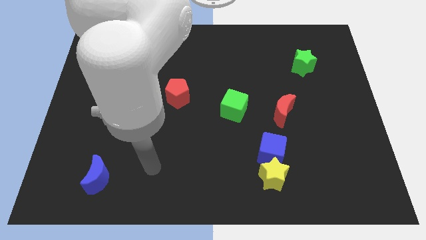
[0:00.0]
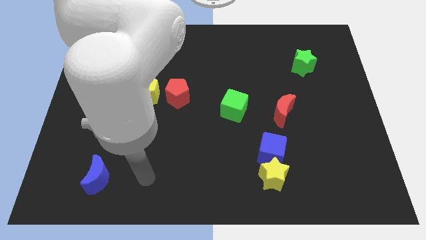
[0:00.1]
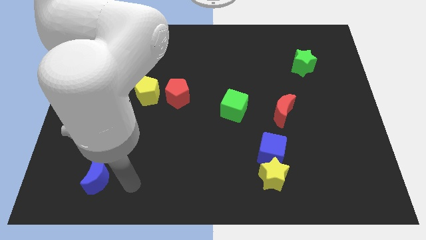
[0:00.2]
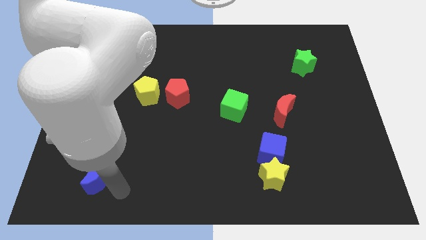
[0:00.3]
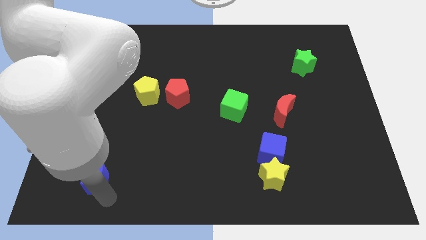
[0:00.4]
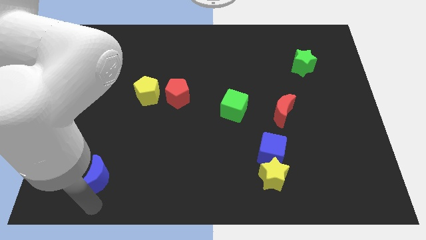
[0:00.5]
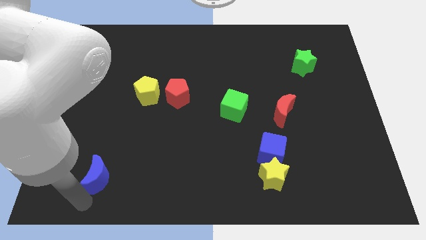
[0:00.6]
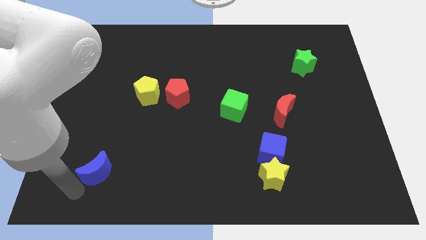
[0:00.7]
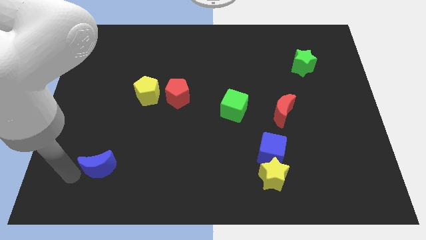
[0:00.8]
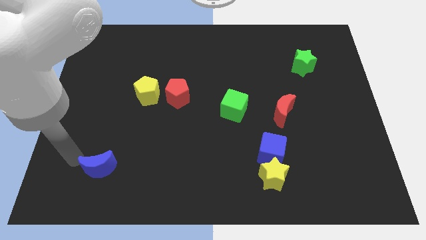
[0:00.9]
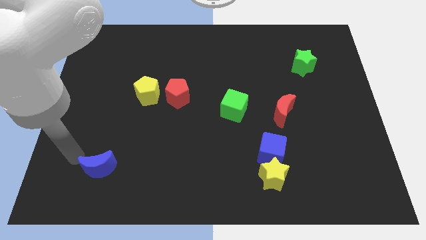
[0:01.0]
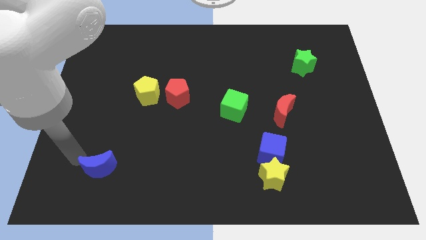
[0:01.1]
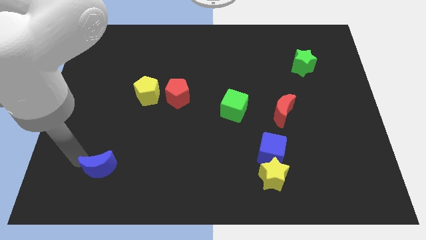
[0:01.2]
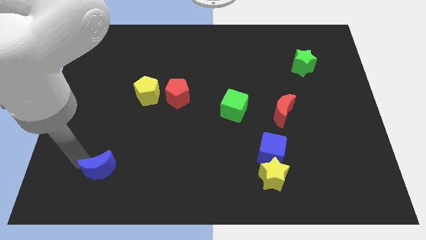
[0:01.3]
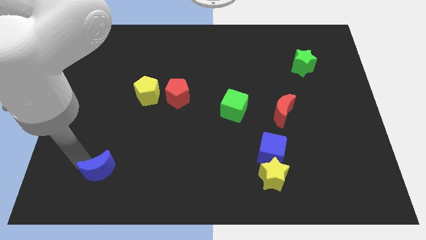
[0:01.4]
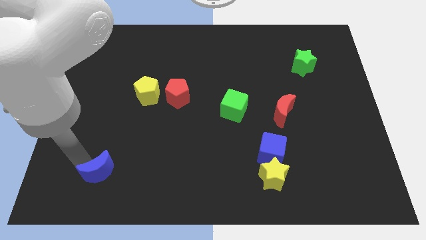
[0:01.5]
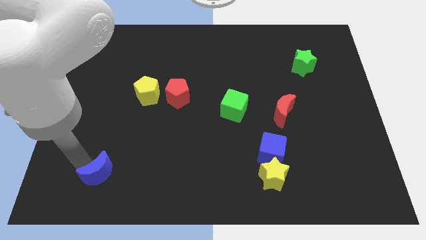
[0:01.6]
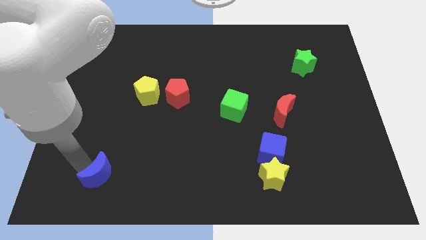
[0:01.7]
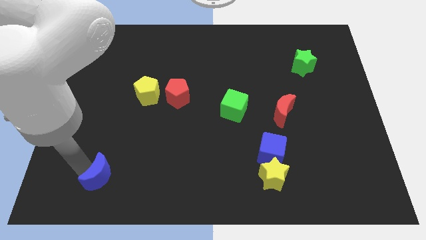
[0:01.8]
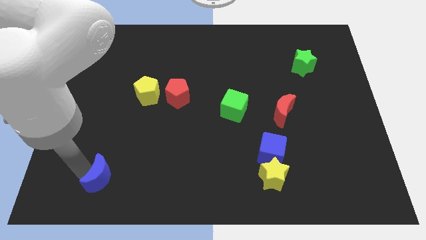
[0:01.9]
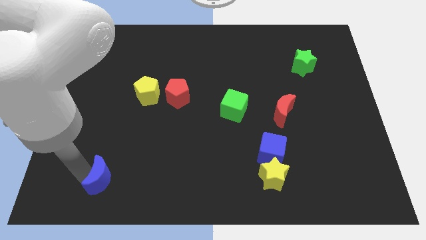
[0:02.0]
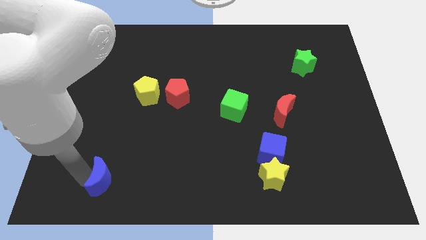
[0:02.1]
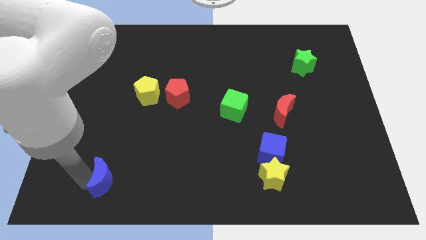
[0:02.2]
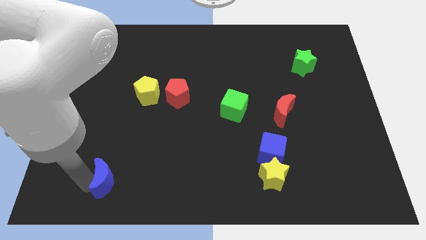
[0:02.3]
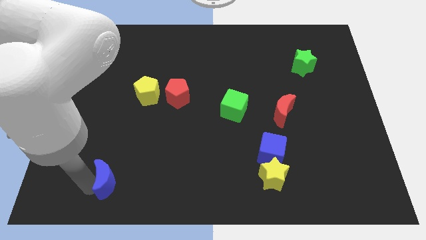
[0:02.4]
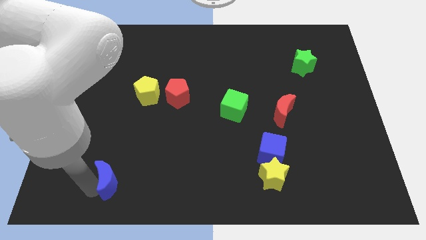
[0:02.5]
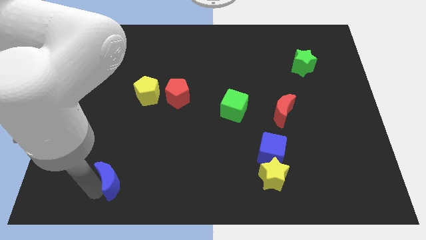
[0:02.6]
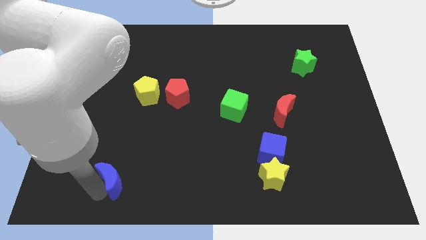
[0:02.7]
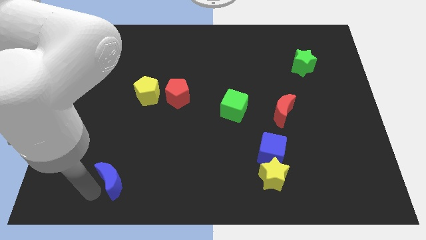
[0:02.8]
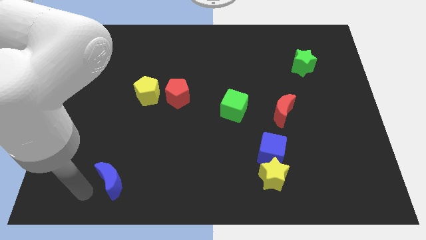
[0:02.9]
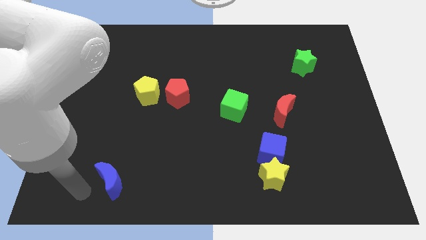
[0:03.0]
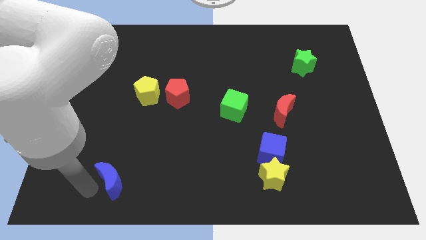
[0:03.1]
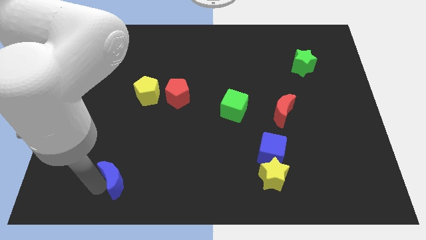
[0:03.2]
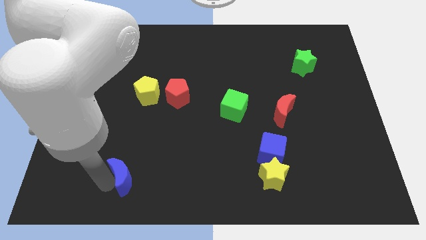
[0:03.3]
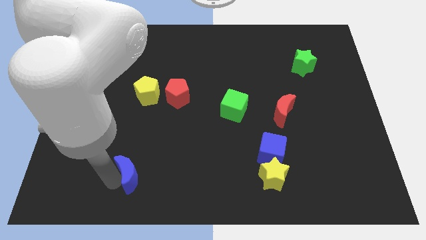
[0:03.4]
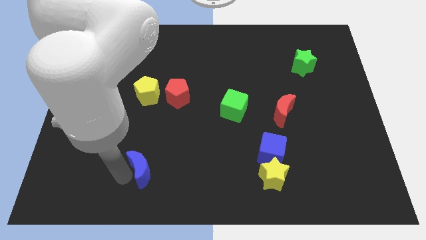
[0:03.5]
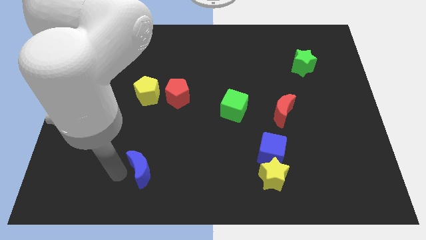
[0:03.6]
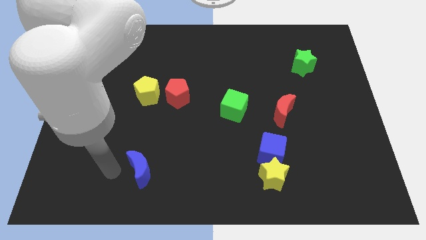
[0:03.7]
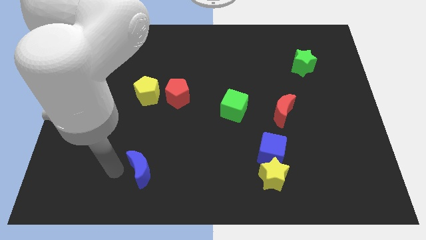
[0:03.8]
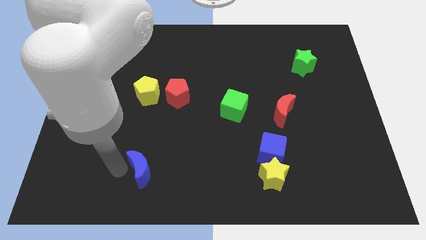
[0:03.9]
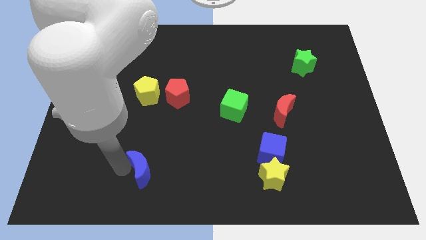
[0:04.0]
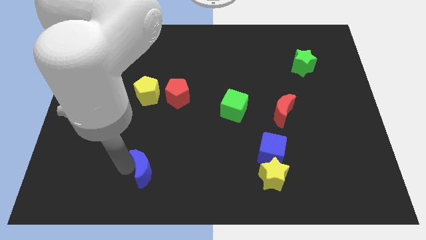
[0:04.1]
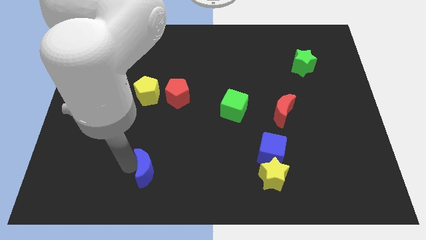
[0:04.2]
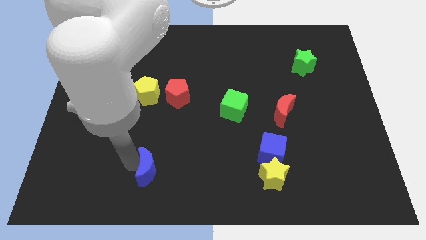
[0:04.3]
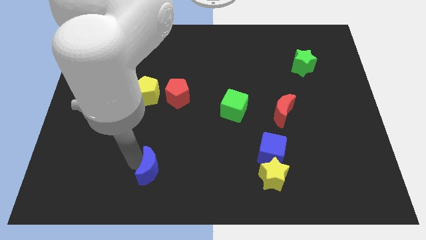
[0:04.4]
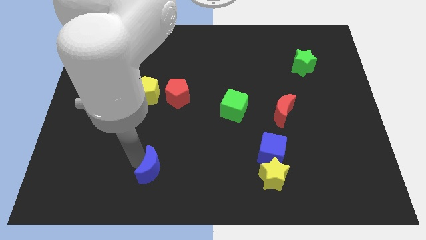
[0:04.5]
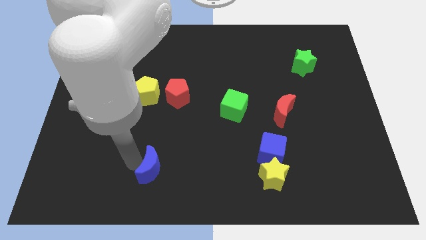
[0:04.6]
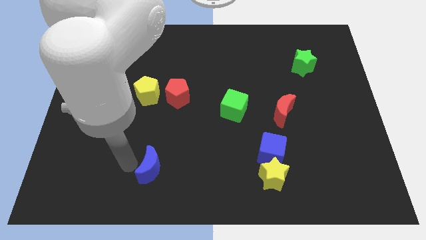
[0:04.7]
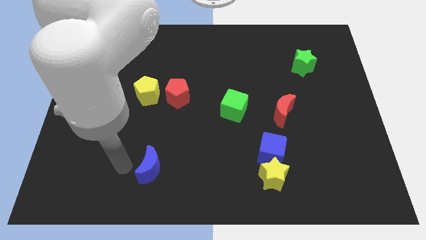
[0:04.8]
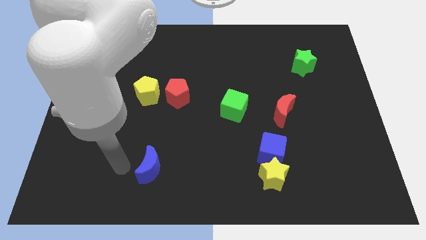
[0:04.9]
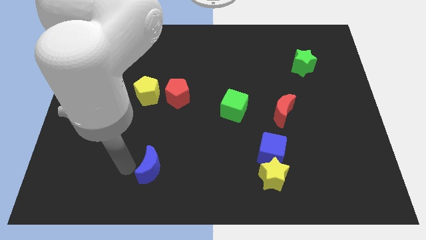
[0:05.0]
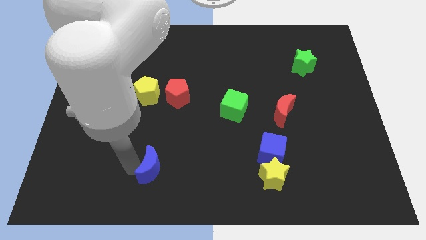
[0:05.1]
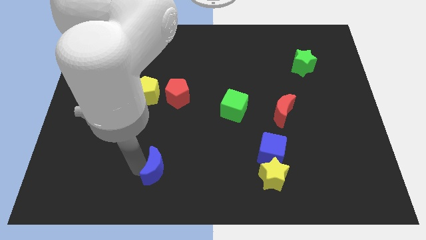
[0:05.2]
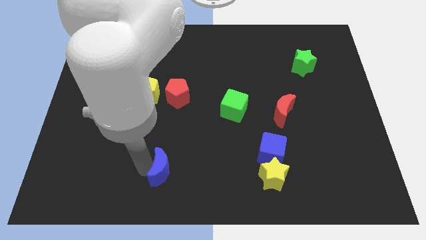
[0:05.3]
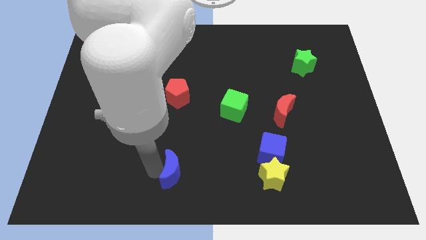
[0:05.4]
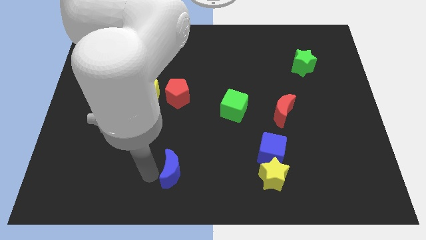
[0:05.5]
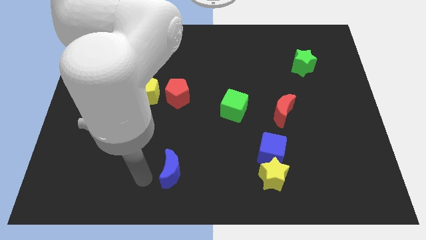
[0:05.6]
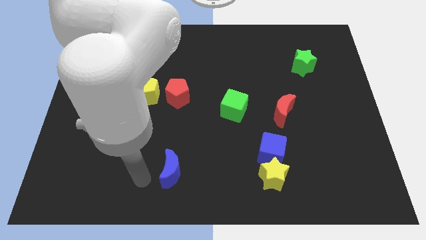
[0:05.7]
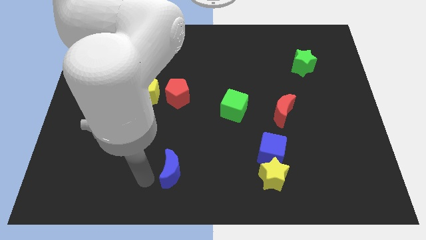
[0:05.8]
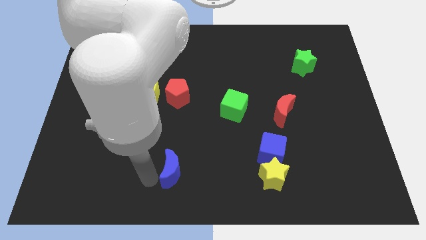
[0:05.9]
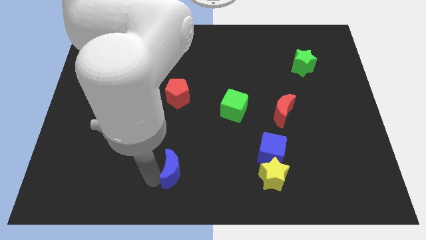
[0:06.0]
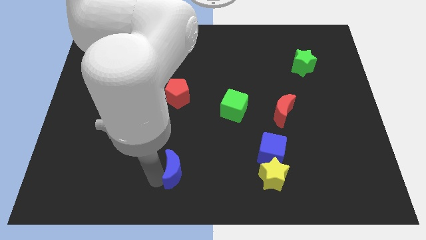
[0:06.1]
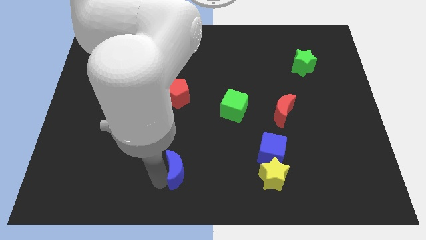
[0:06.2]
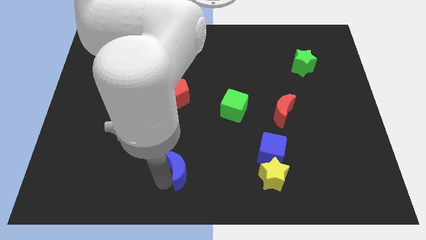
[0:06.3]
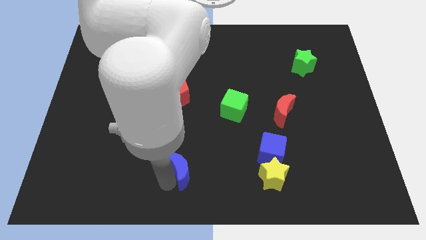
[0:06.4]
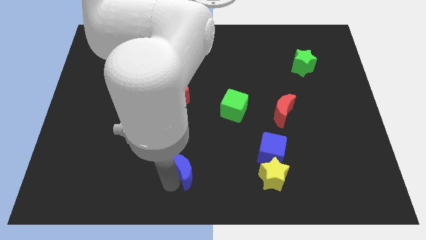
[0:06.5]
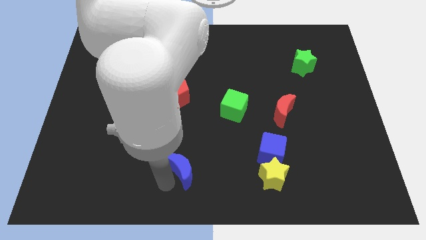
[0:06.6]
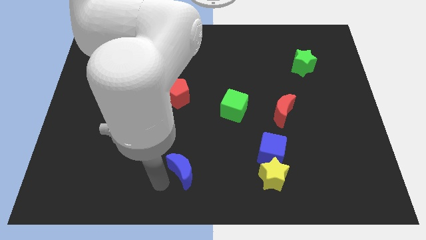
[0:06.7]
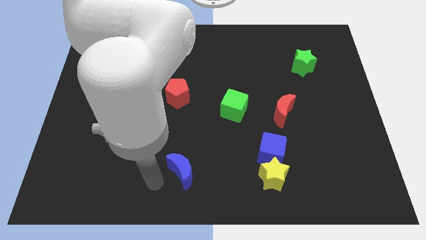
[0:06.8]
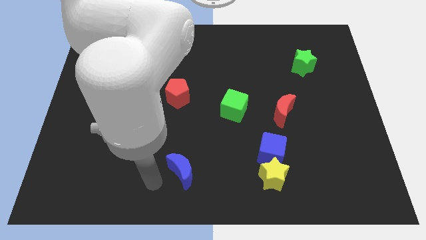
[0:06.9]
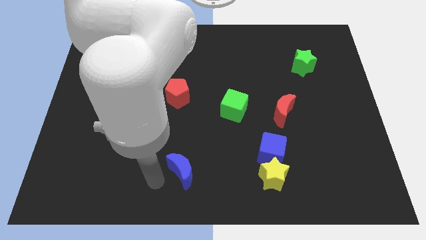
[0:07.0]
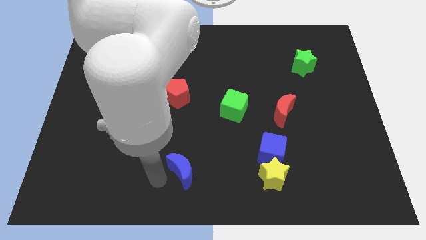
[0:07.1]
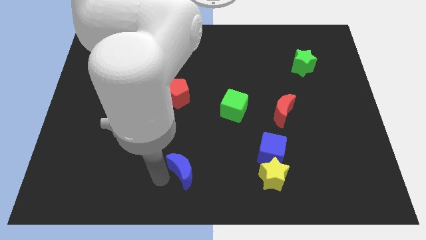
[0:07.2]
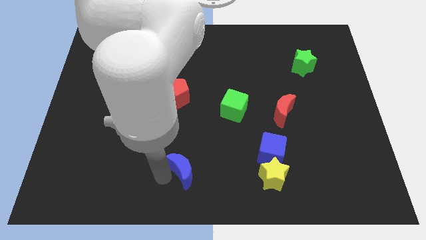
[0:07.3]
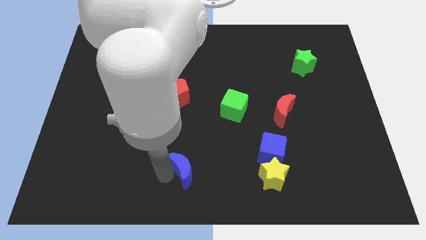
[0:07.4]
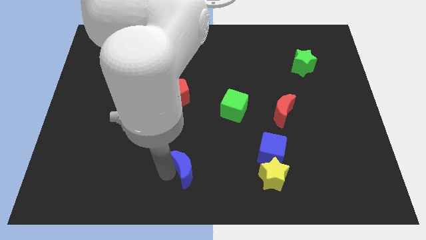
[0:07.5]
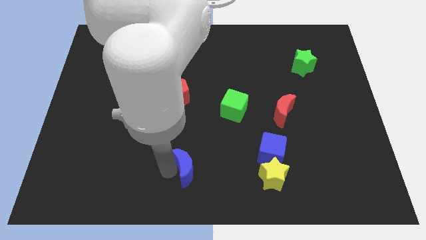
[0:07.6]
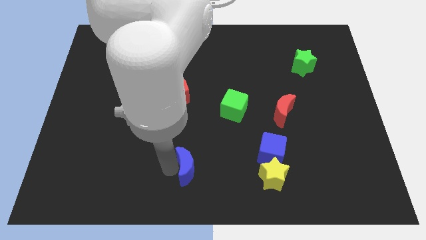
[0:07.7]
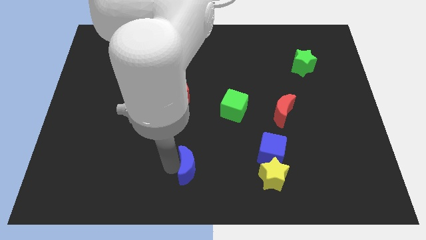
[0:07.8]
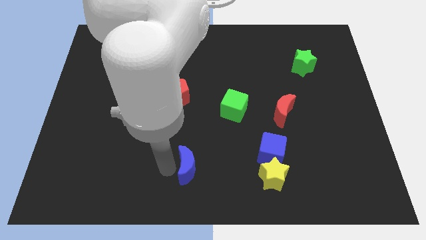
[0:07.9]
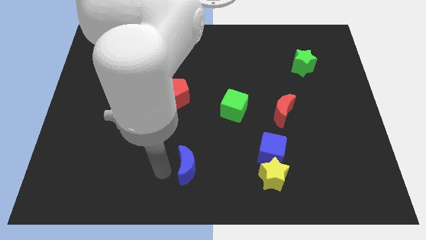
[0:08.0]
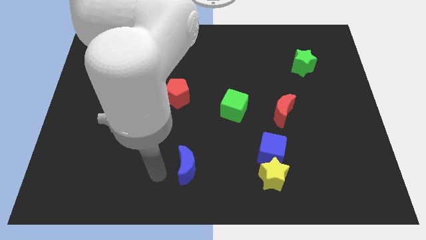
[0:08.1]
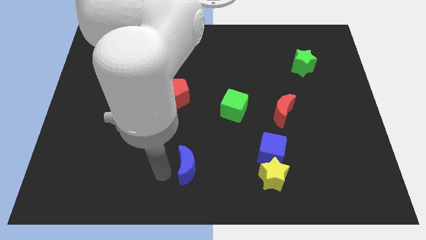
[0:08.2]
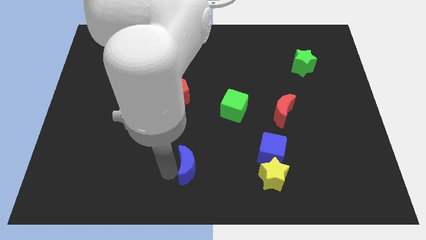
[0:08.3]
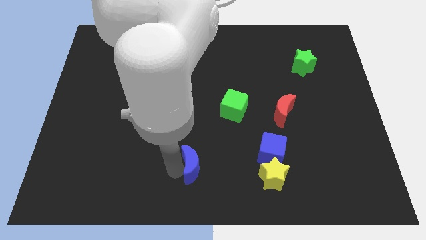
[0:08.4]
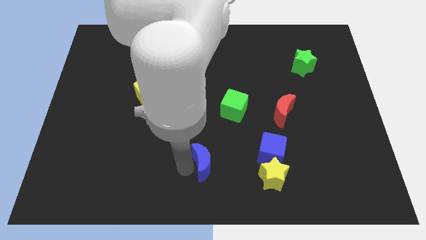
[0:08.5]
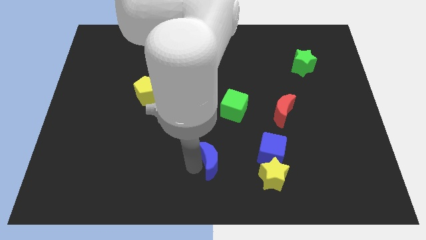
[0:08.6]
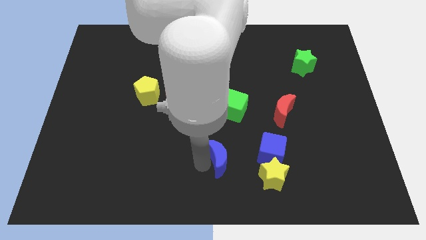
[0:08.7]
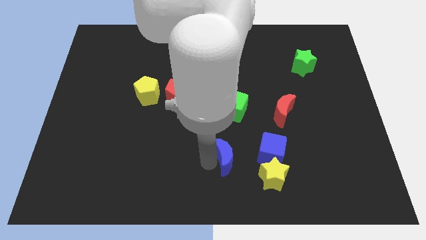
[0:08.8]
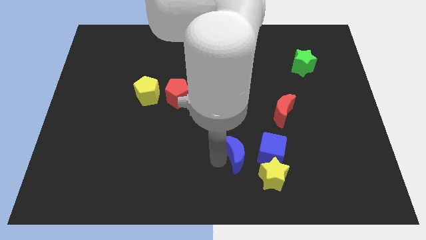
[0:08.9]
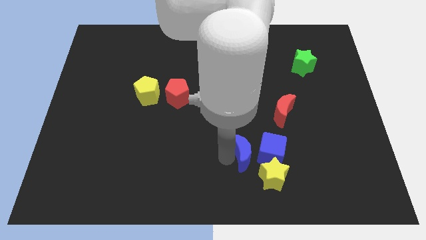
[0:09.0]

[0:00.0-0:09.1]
push the blue moon towards the blue cube
